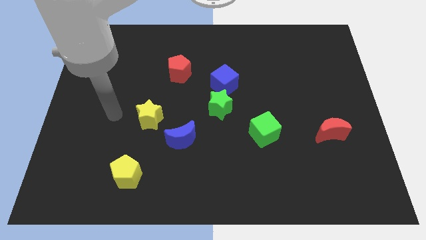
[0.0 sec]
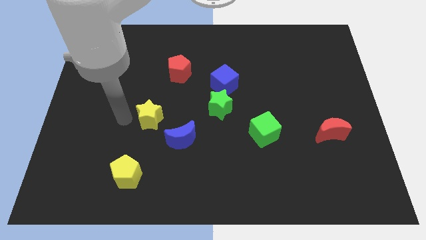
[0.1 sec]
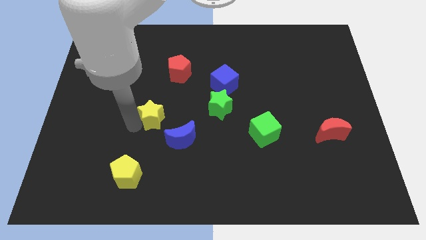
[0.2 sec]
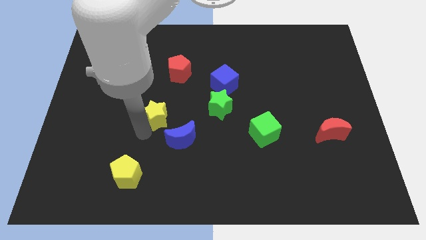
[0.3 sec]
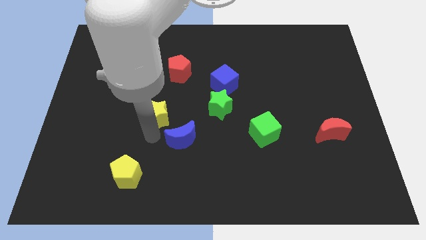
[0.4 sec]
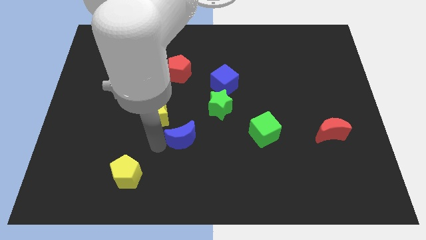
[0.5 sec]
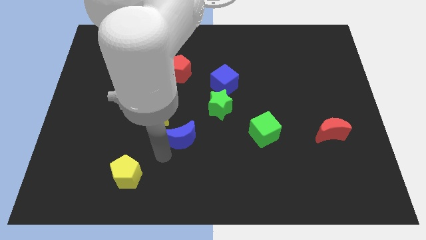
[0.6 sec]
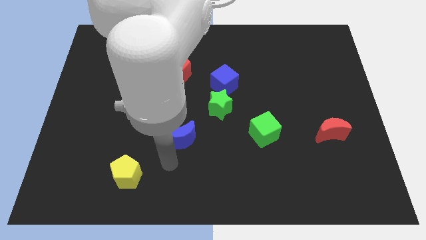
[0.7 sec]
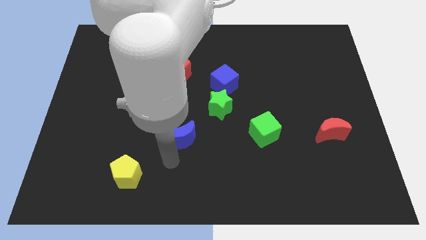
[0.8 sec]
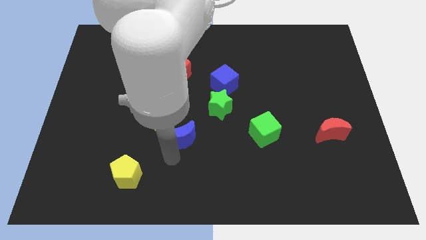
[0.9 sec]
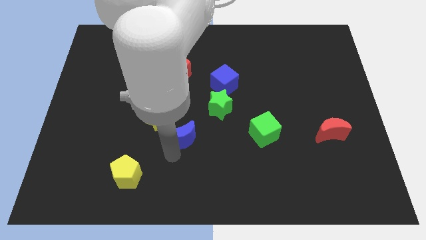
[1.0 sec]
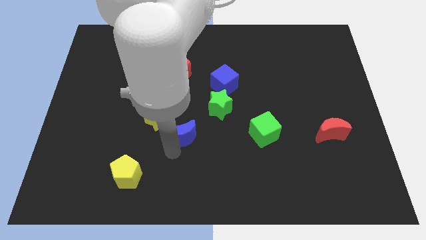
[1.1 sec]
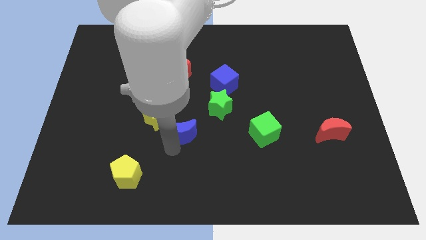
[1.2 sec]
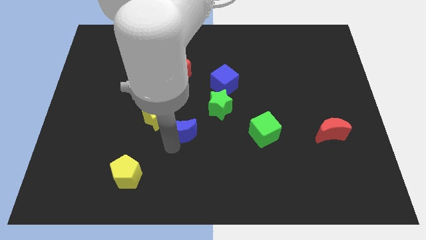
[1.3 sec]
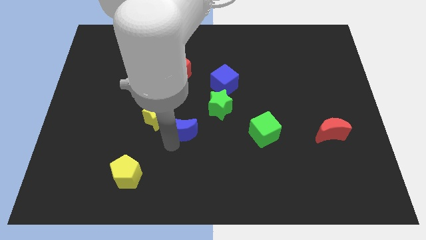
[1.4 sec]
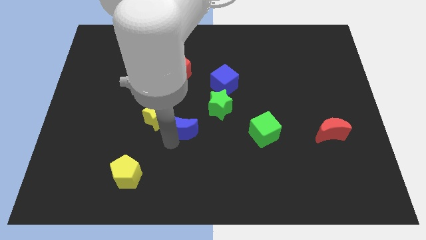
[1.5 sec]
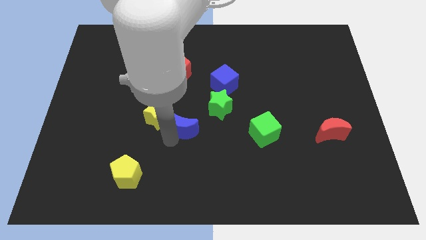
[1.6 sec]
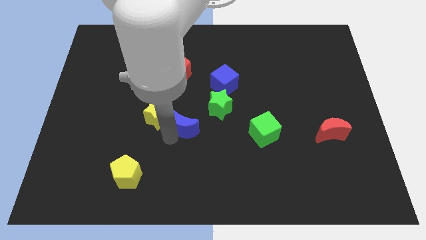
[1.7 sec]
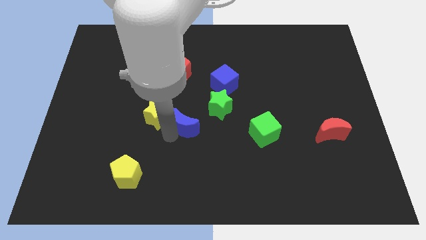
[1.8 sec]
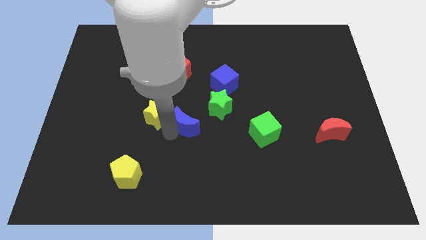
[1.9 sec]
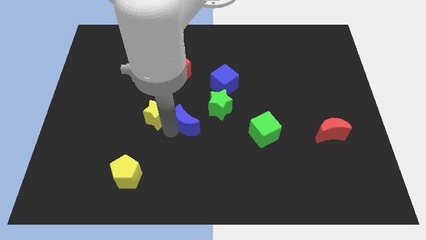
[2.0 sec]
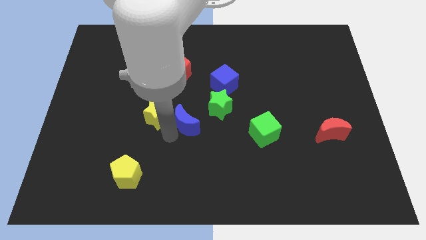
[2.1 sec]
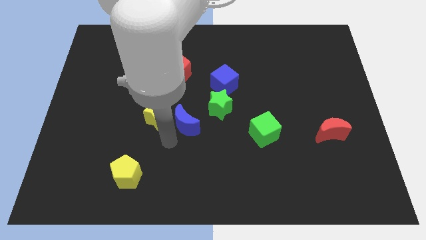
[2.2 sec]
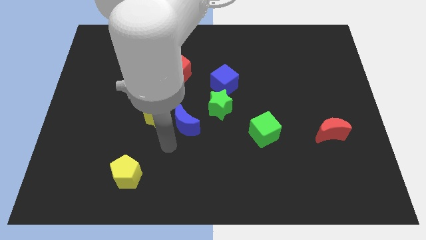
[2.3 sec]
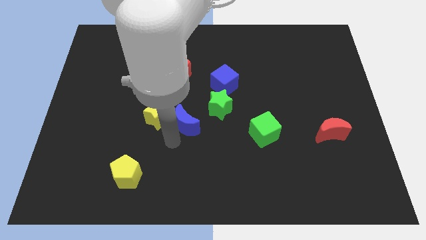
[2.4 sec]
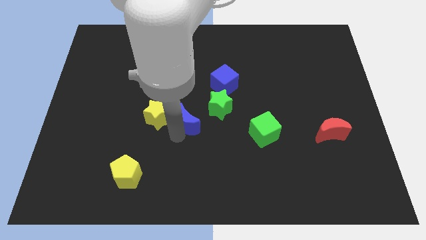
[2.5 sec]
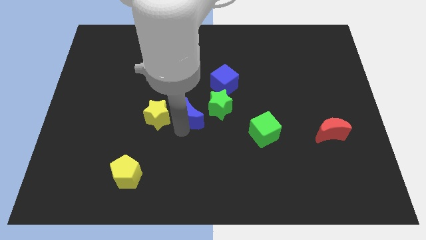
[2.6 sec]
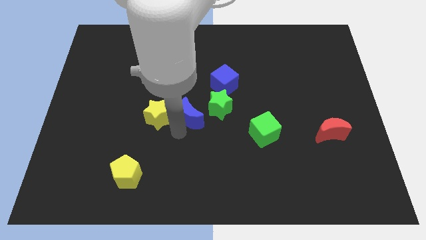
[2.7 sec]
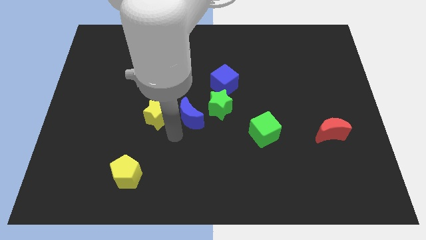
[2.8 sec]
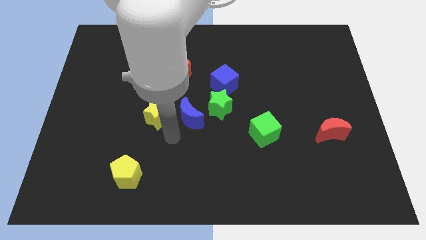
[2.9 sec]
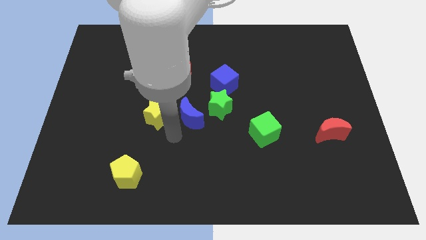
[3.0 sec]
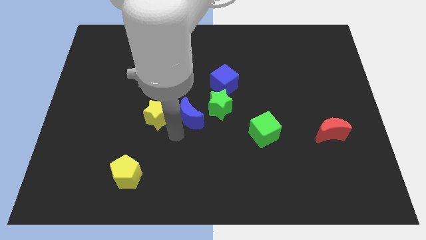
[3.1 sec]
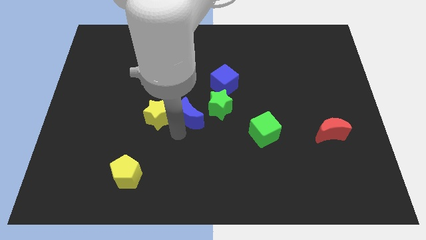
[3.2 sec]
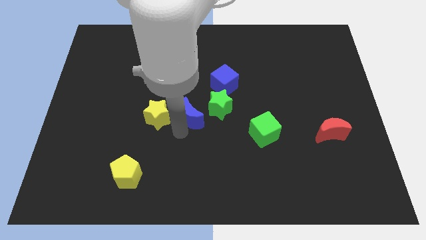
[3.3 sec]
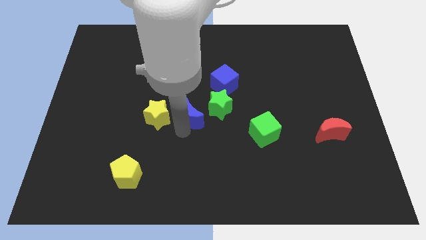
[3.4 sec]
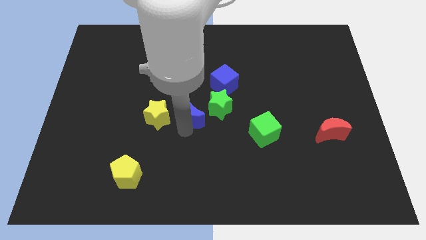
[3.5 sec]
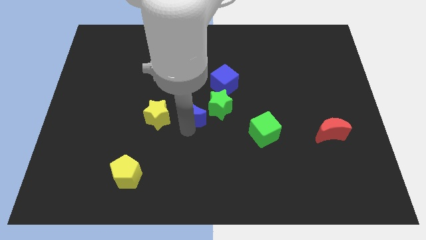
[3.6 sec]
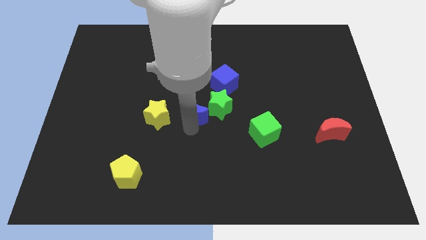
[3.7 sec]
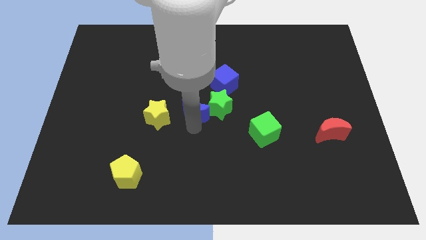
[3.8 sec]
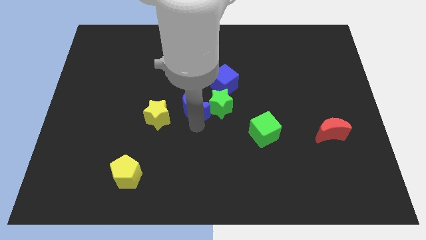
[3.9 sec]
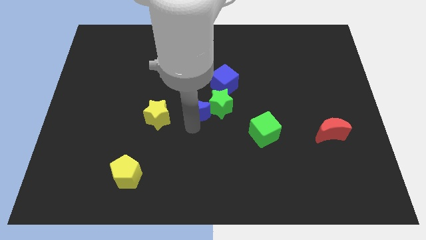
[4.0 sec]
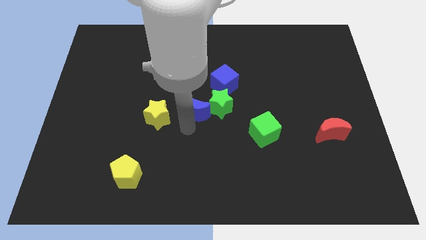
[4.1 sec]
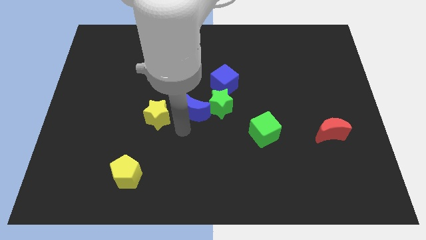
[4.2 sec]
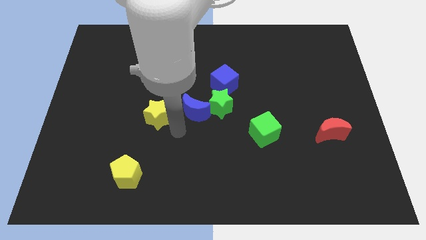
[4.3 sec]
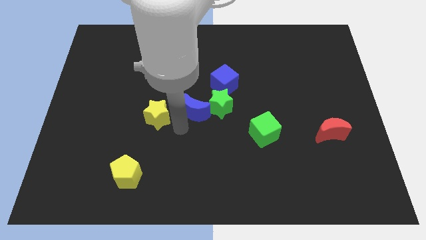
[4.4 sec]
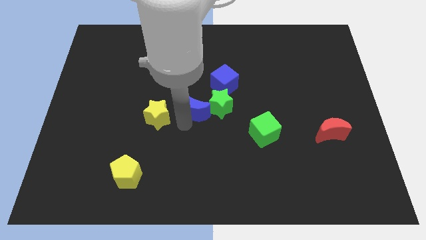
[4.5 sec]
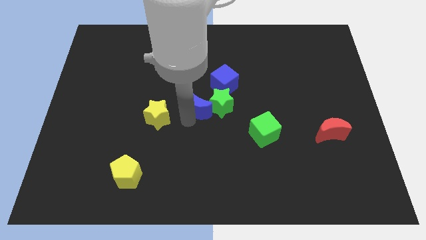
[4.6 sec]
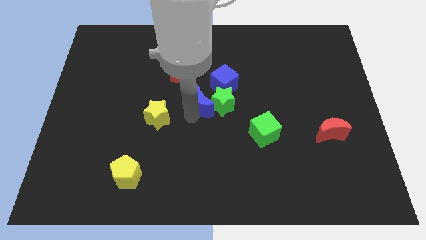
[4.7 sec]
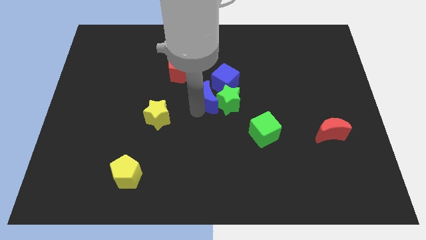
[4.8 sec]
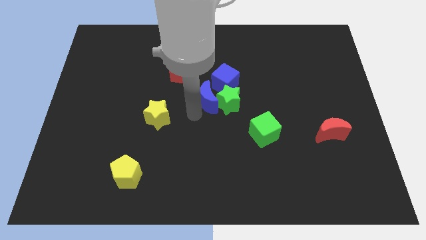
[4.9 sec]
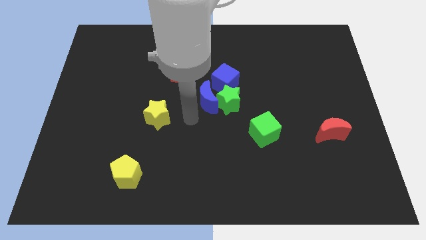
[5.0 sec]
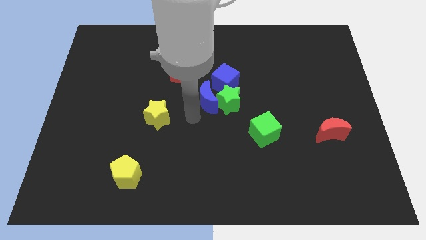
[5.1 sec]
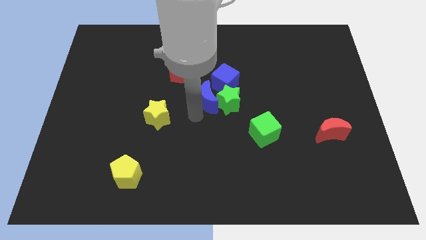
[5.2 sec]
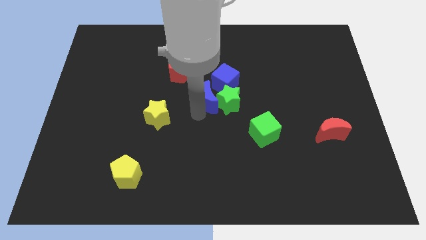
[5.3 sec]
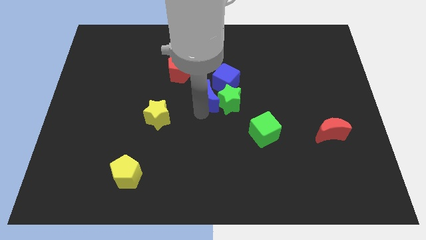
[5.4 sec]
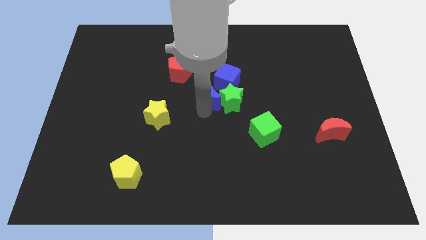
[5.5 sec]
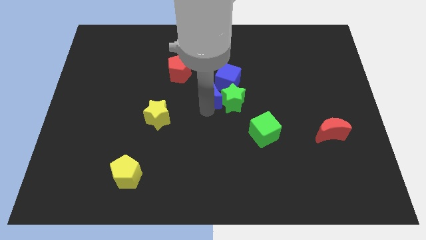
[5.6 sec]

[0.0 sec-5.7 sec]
push the blue moon towards the blue cube
